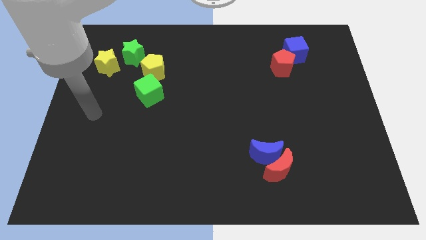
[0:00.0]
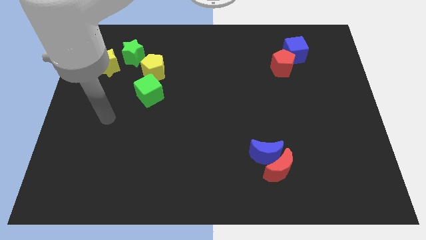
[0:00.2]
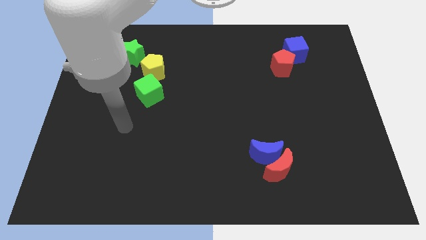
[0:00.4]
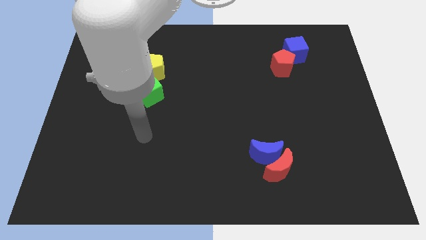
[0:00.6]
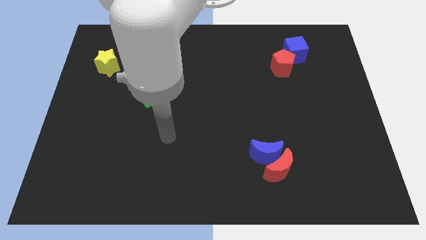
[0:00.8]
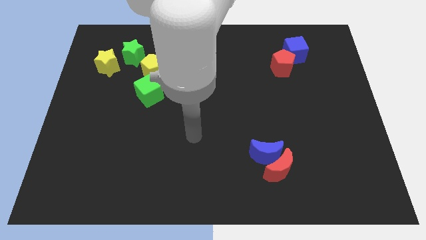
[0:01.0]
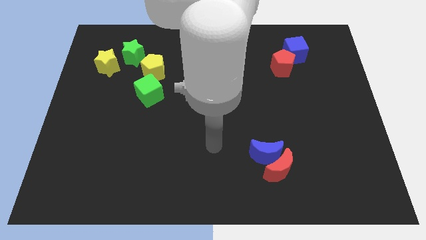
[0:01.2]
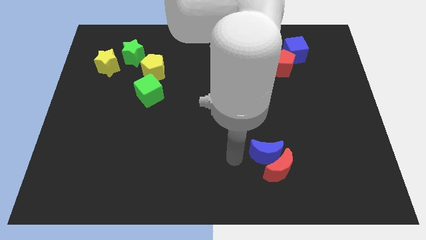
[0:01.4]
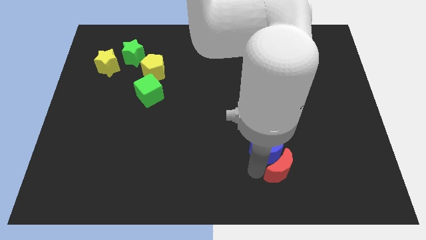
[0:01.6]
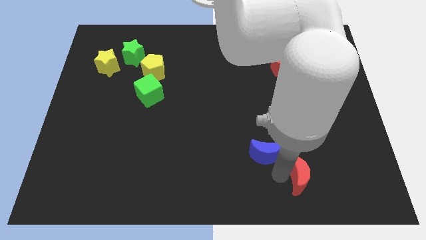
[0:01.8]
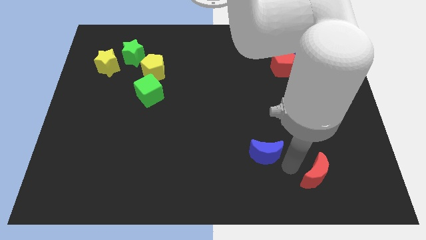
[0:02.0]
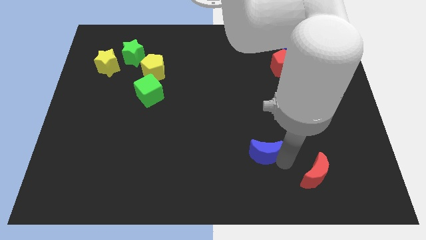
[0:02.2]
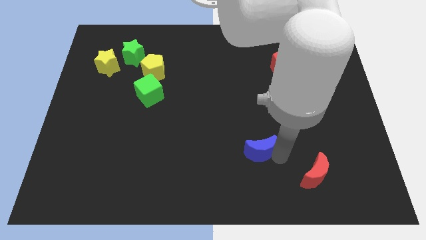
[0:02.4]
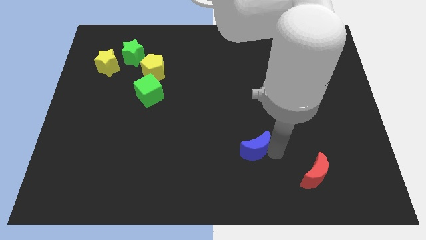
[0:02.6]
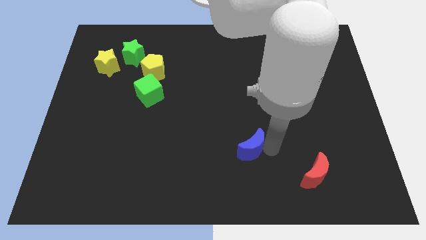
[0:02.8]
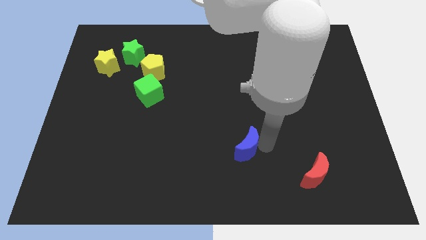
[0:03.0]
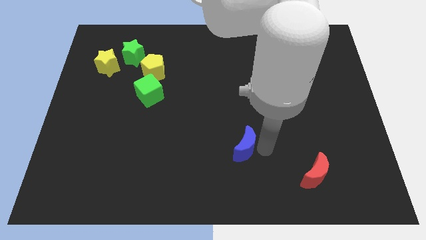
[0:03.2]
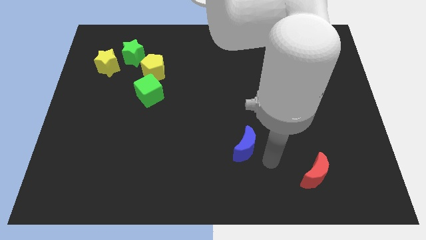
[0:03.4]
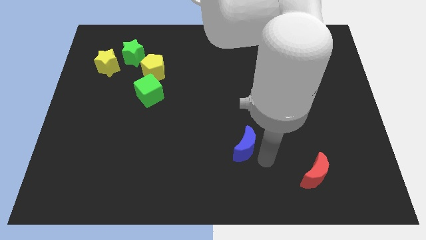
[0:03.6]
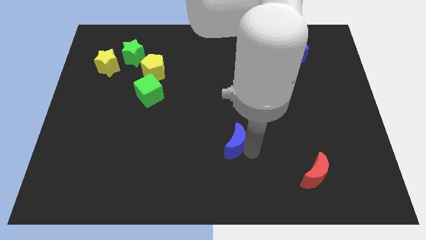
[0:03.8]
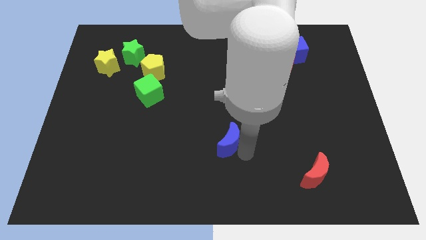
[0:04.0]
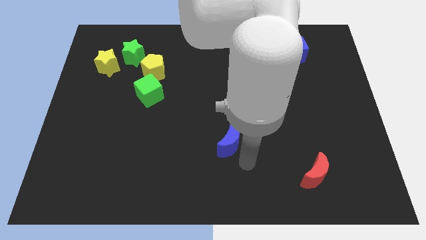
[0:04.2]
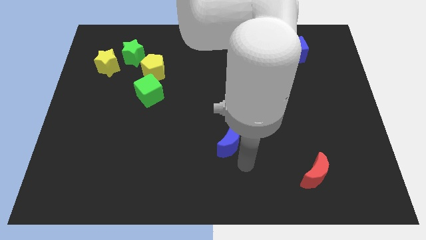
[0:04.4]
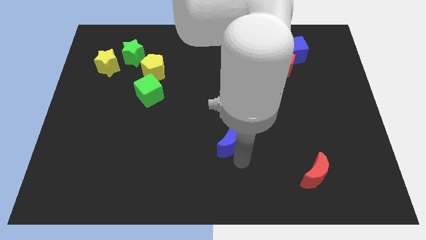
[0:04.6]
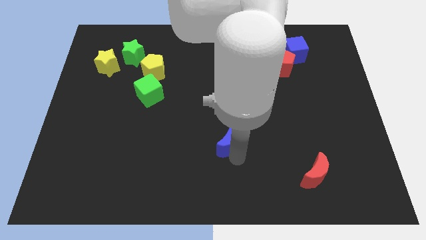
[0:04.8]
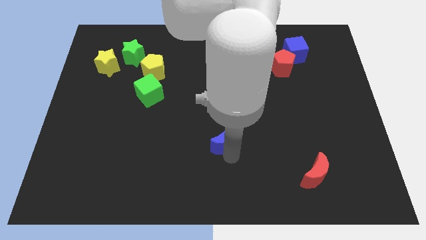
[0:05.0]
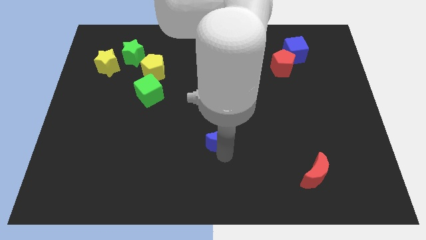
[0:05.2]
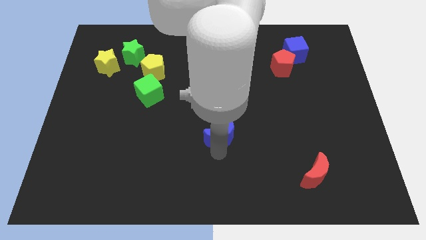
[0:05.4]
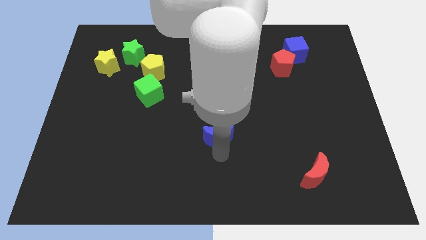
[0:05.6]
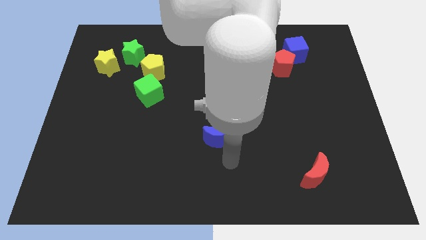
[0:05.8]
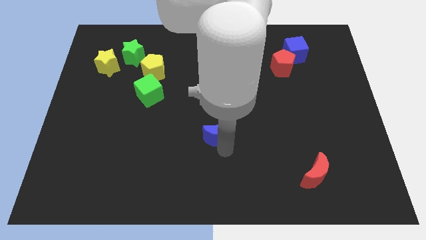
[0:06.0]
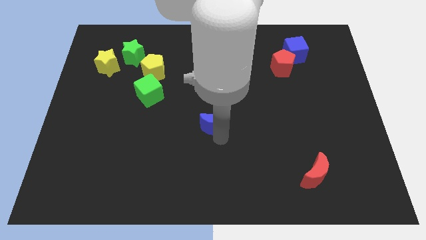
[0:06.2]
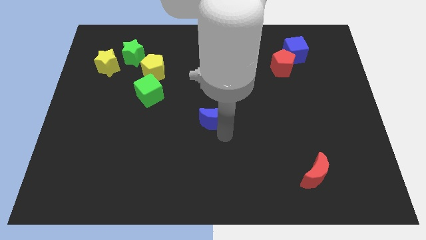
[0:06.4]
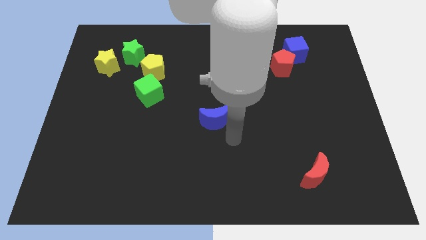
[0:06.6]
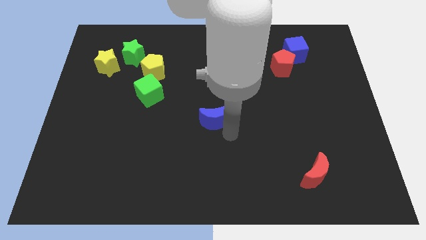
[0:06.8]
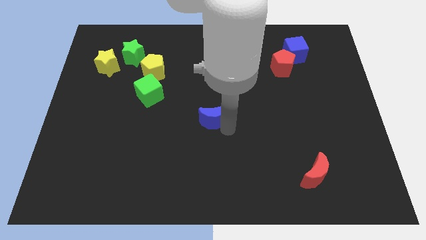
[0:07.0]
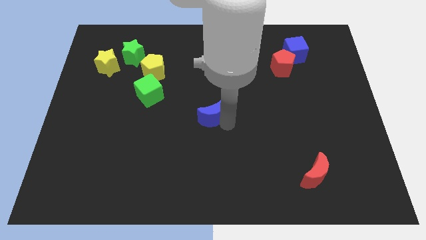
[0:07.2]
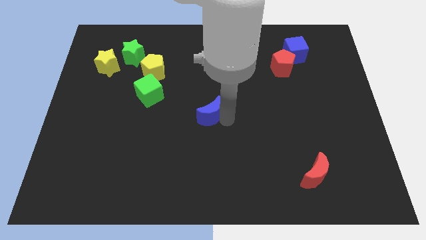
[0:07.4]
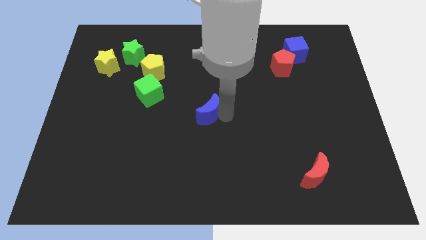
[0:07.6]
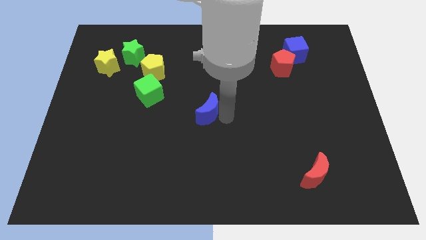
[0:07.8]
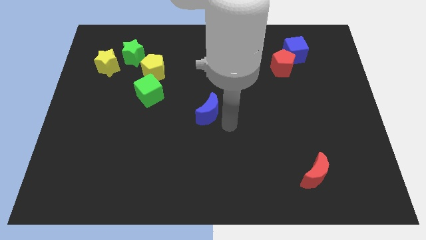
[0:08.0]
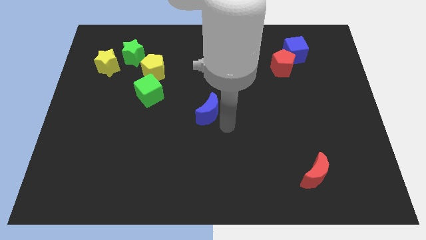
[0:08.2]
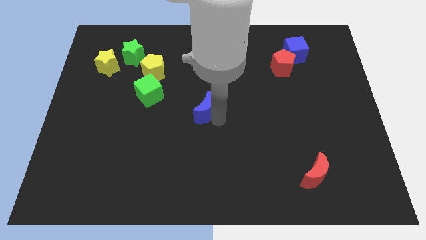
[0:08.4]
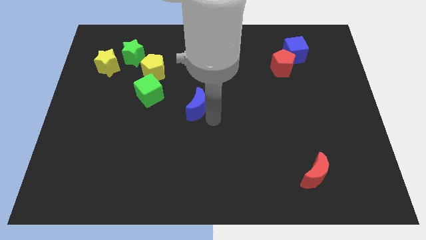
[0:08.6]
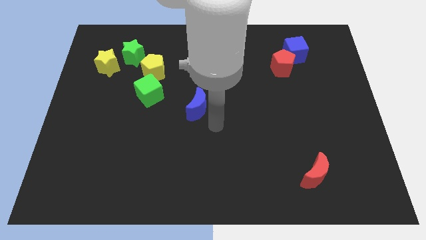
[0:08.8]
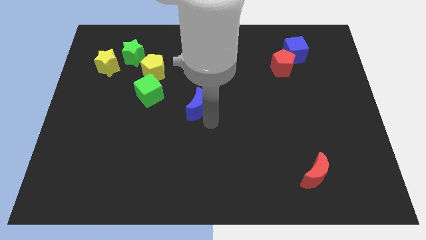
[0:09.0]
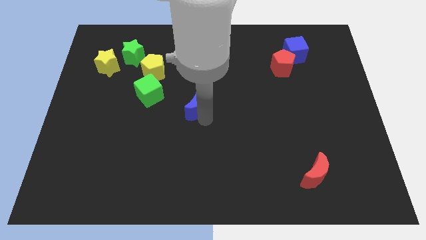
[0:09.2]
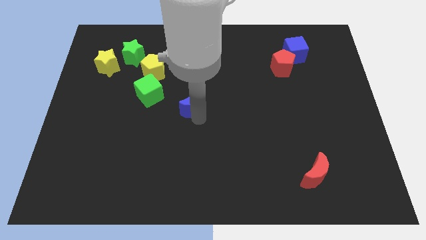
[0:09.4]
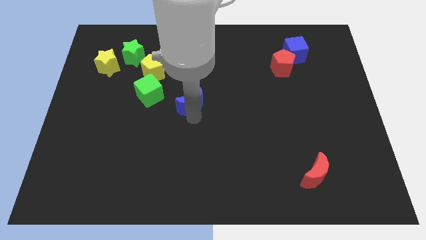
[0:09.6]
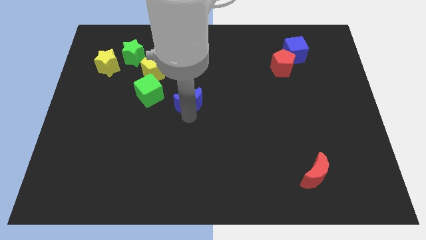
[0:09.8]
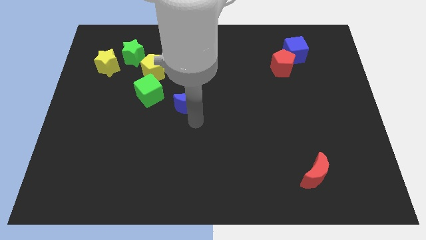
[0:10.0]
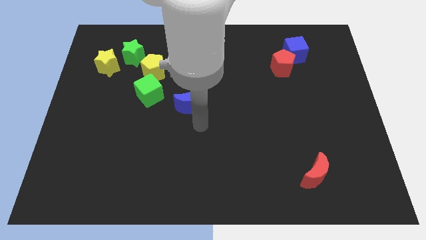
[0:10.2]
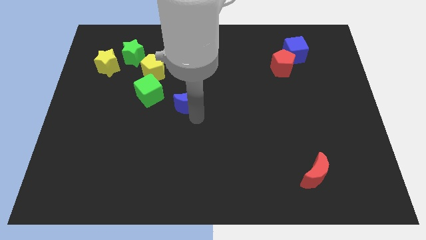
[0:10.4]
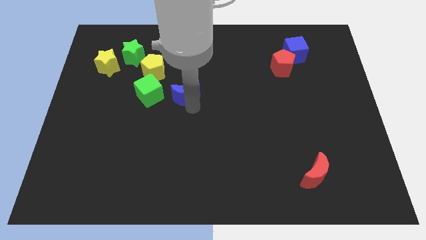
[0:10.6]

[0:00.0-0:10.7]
push the blue moon to the bottom right side of the yellow pentagon

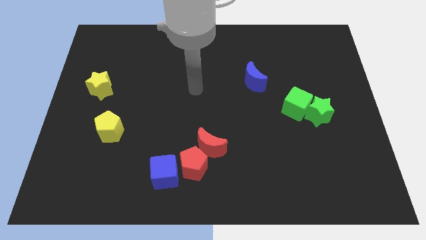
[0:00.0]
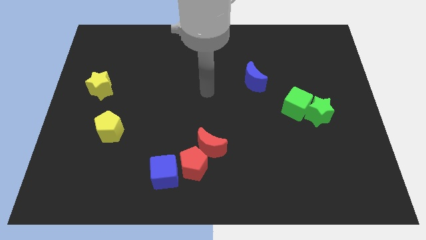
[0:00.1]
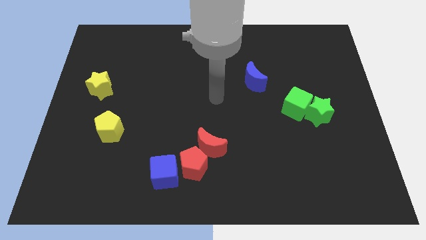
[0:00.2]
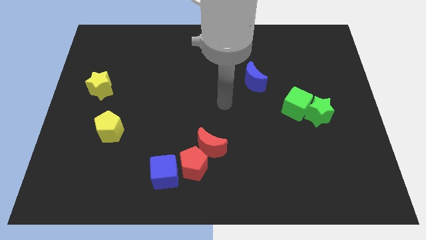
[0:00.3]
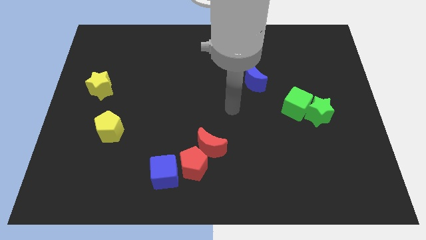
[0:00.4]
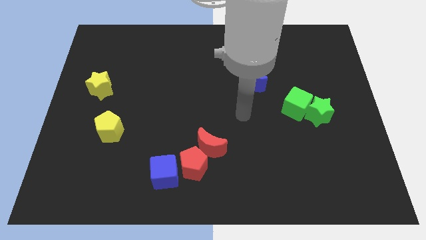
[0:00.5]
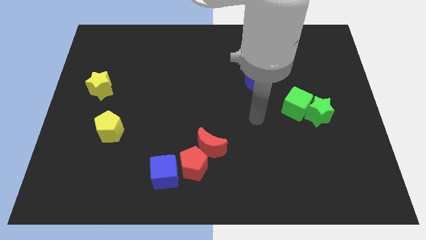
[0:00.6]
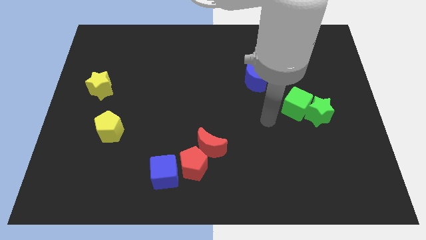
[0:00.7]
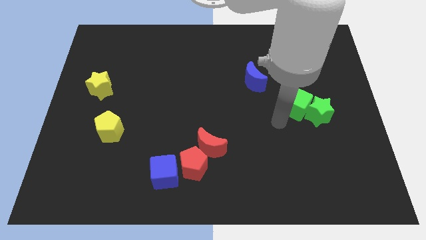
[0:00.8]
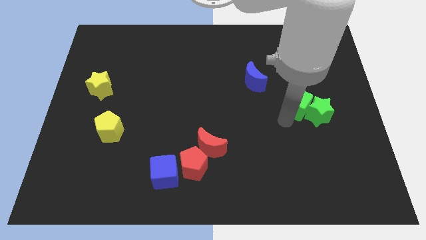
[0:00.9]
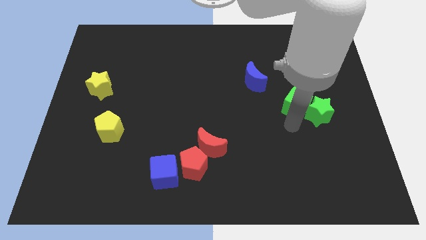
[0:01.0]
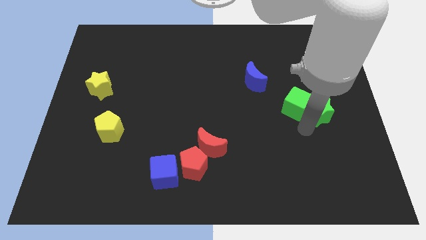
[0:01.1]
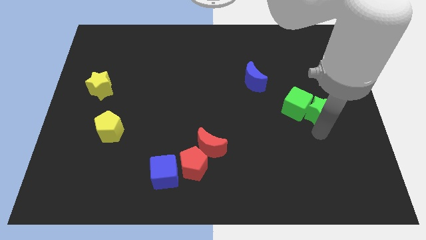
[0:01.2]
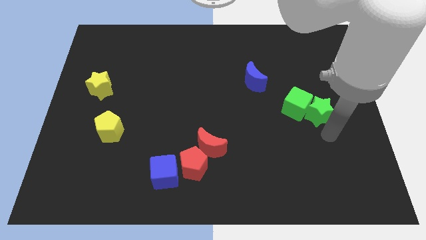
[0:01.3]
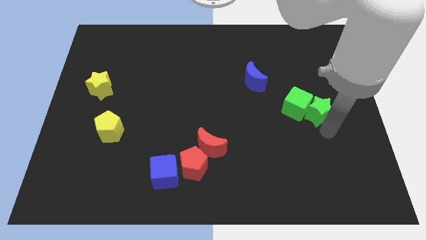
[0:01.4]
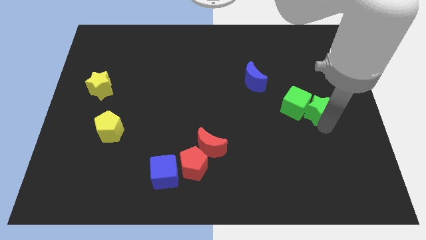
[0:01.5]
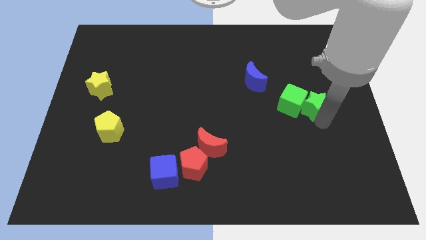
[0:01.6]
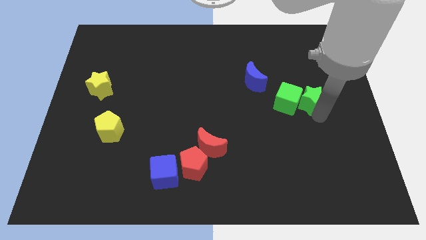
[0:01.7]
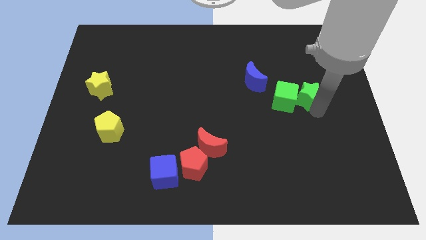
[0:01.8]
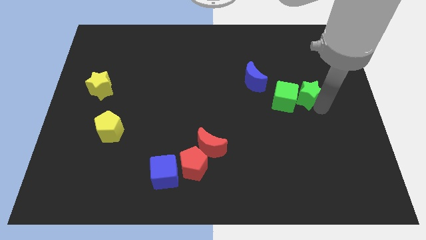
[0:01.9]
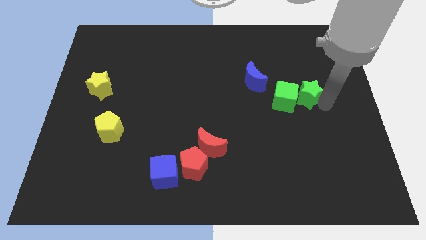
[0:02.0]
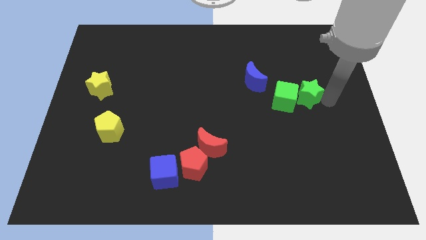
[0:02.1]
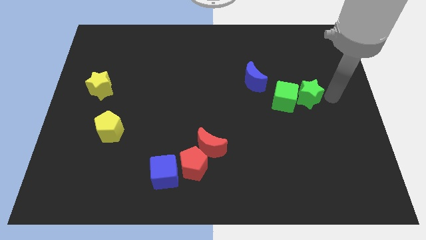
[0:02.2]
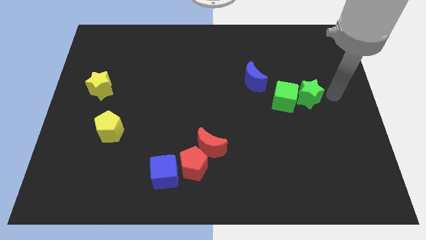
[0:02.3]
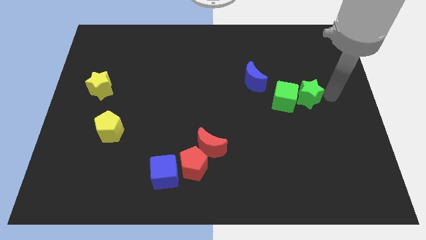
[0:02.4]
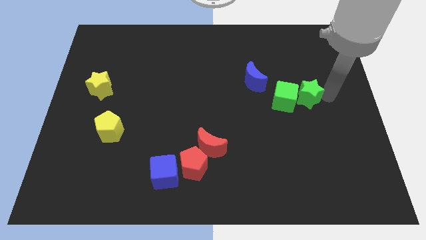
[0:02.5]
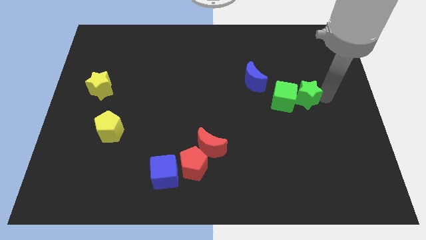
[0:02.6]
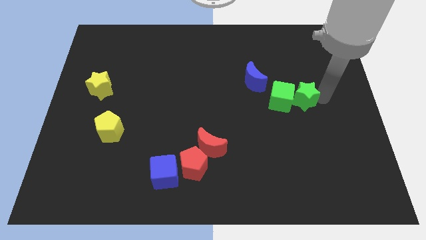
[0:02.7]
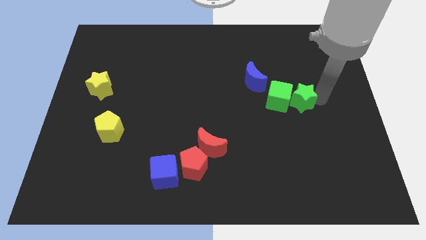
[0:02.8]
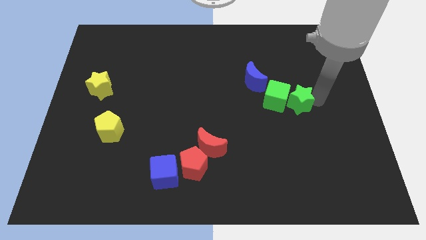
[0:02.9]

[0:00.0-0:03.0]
push the green star diagonally down and to the right of the blue moon
